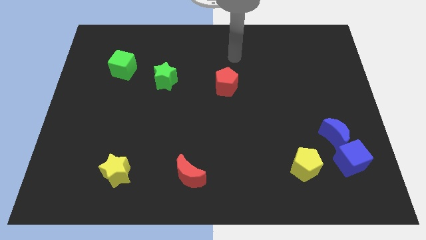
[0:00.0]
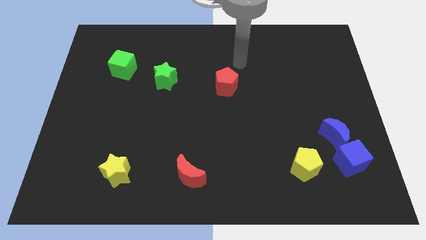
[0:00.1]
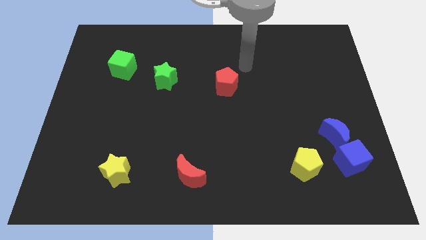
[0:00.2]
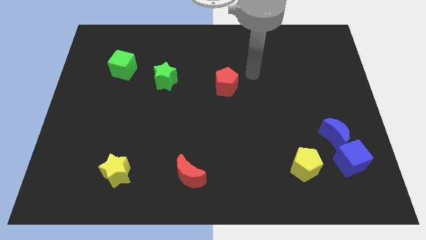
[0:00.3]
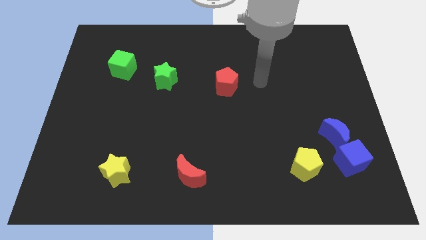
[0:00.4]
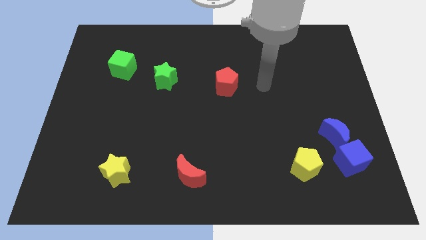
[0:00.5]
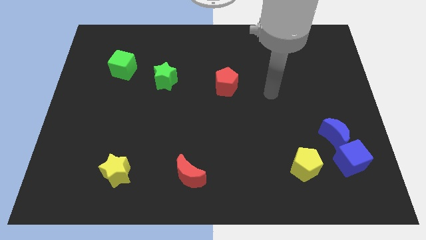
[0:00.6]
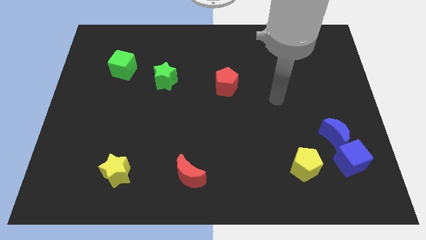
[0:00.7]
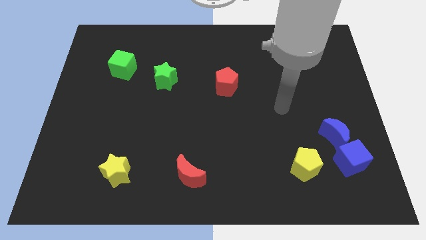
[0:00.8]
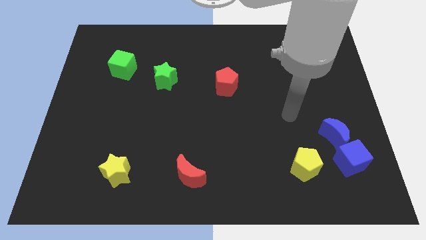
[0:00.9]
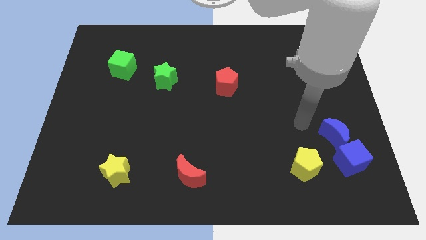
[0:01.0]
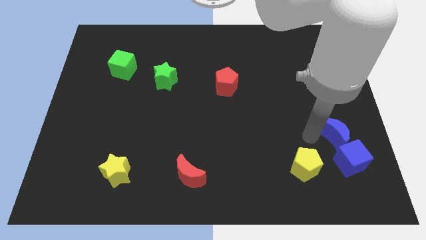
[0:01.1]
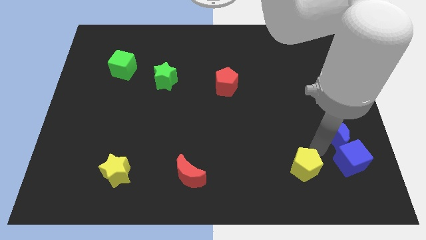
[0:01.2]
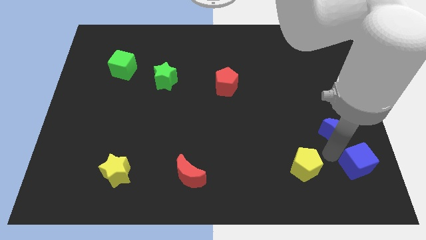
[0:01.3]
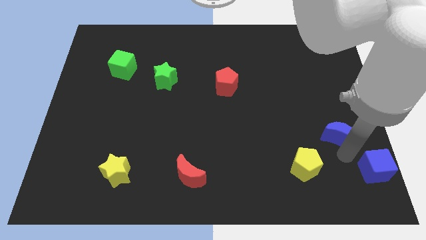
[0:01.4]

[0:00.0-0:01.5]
separate the blue moon from the blue cube

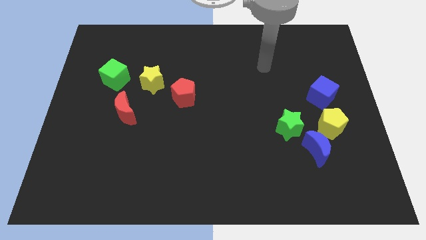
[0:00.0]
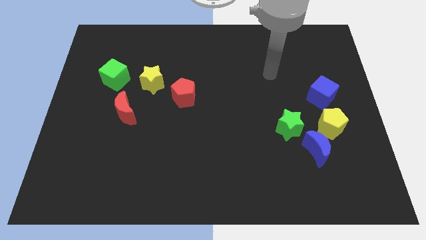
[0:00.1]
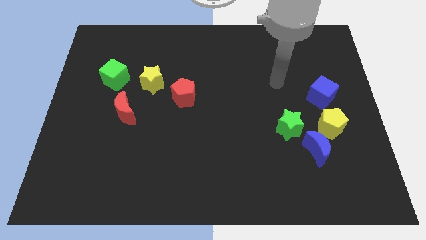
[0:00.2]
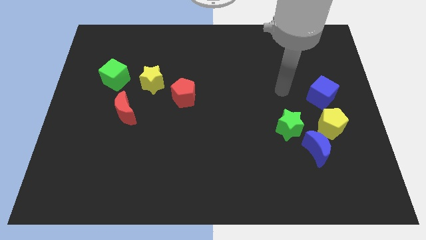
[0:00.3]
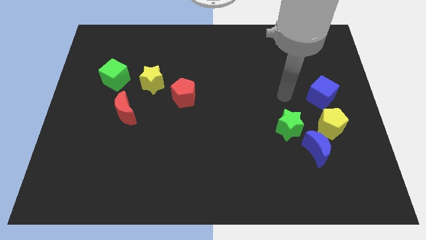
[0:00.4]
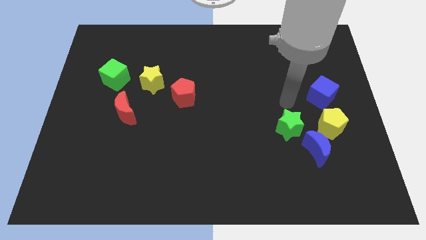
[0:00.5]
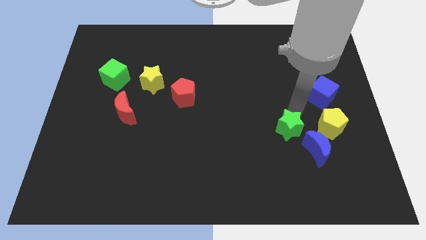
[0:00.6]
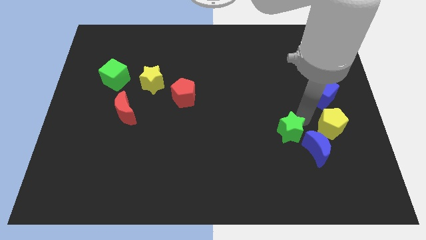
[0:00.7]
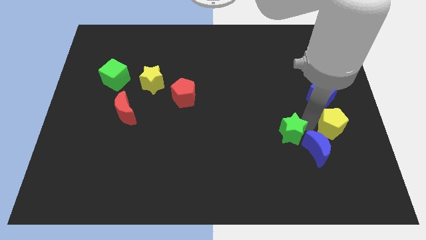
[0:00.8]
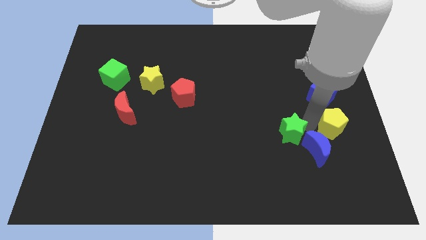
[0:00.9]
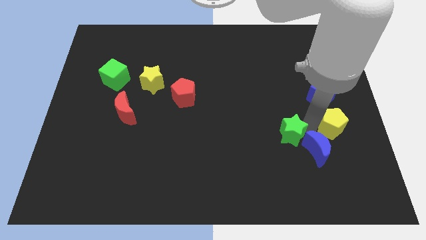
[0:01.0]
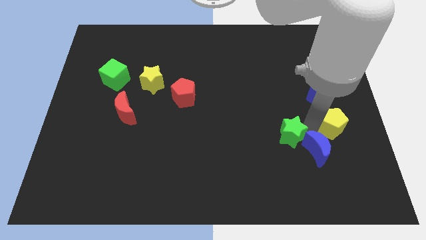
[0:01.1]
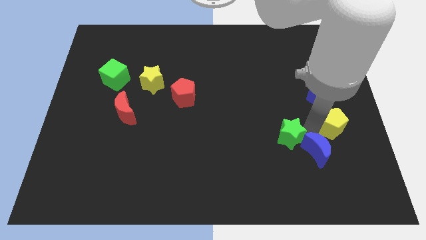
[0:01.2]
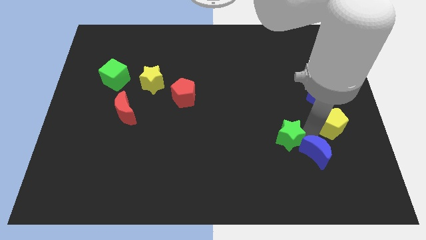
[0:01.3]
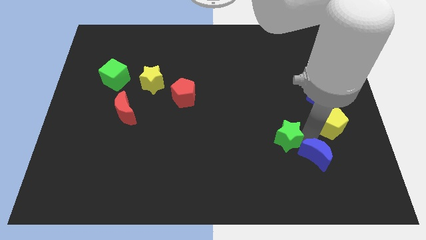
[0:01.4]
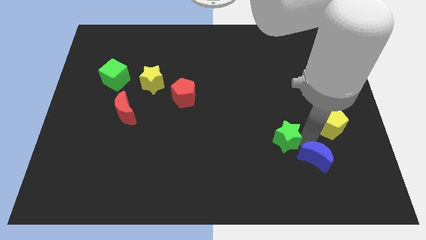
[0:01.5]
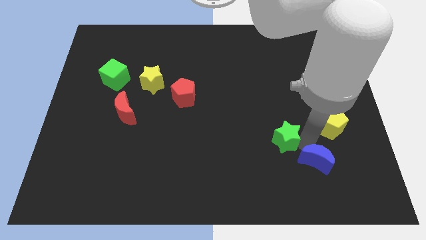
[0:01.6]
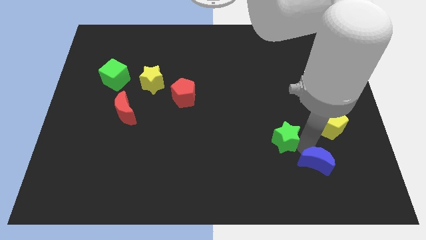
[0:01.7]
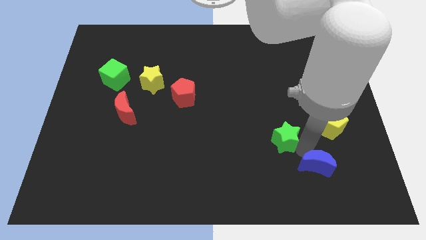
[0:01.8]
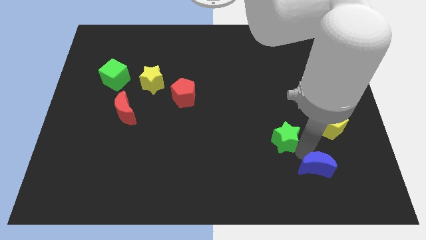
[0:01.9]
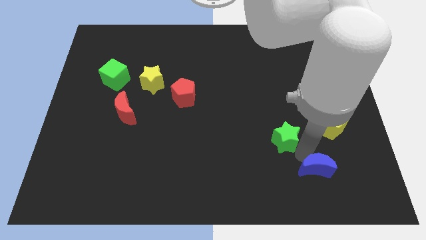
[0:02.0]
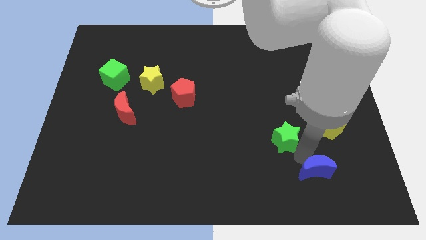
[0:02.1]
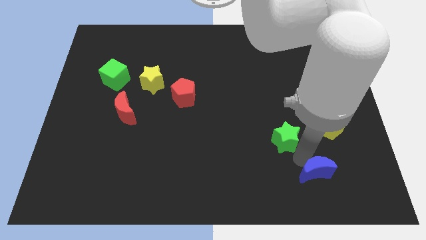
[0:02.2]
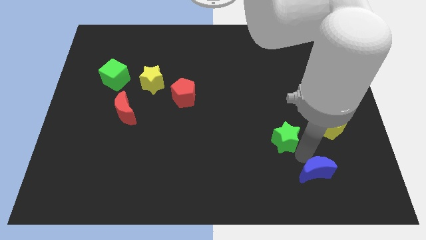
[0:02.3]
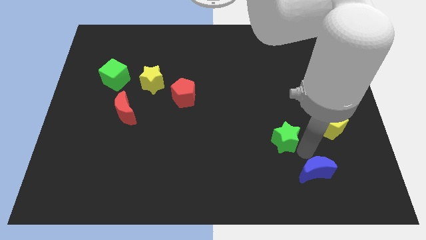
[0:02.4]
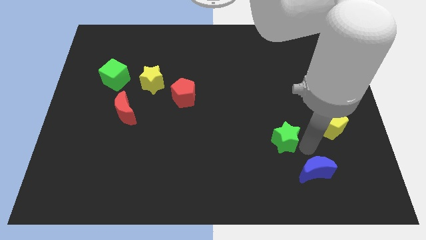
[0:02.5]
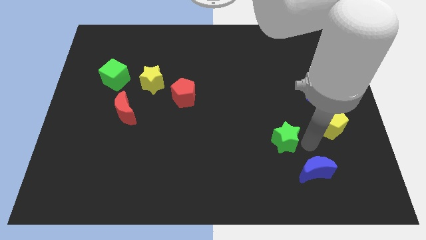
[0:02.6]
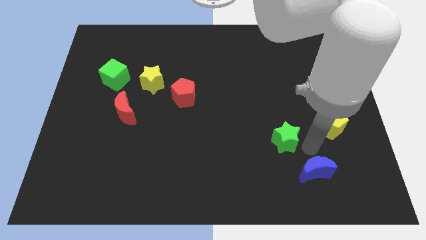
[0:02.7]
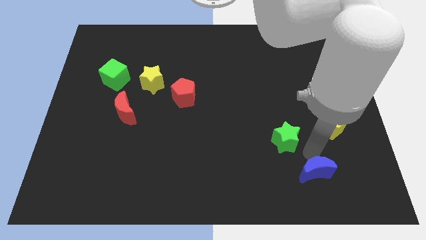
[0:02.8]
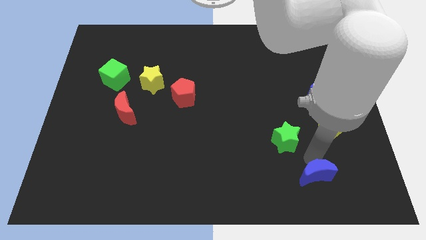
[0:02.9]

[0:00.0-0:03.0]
pull the blue moon apart from the yellow pentagon and green star

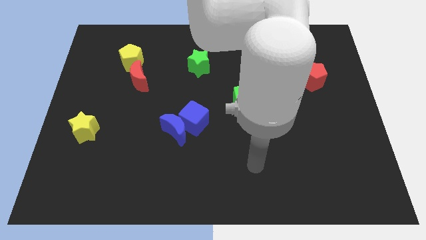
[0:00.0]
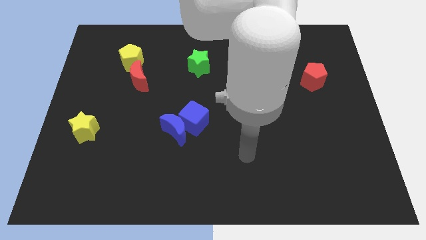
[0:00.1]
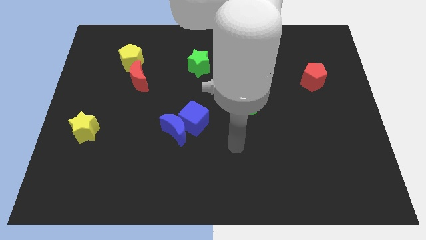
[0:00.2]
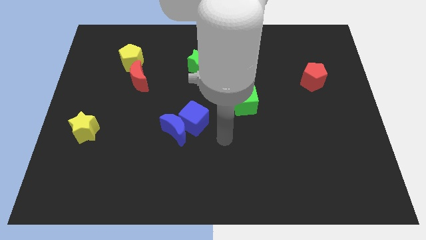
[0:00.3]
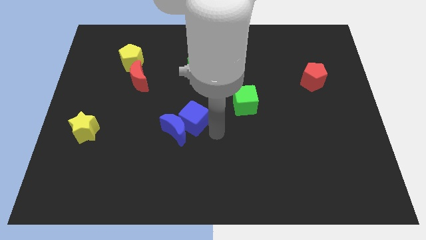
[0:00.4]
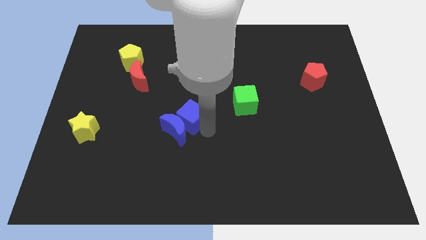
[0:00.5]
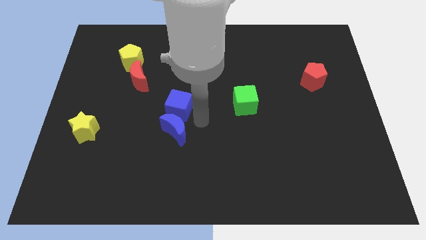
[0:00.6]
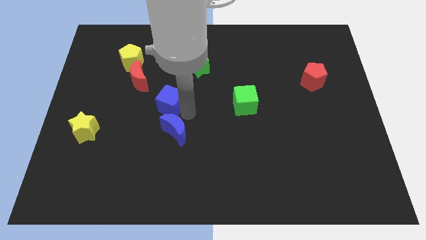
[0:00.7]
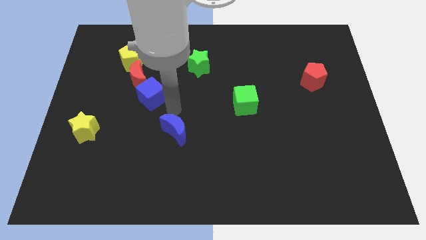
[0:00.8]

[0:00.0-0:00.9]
move the blue moon away from the blue cube

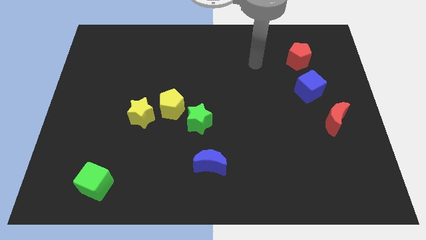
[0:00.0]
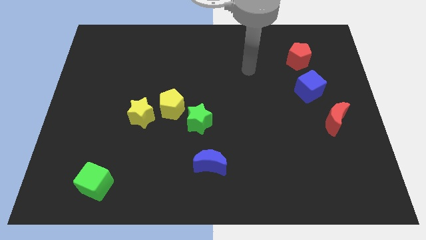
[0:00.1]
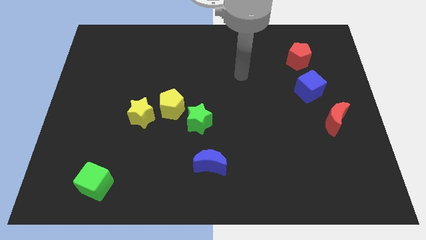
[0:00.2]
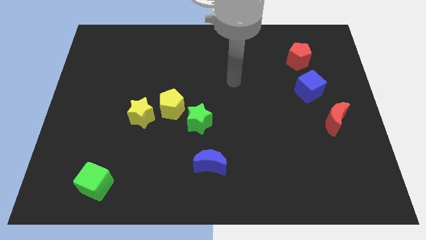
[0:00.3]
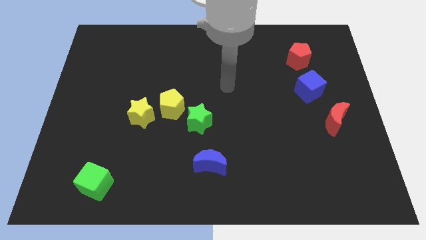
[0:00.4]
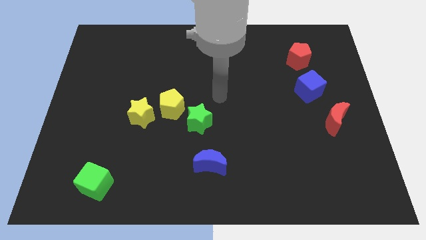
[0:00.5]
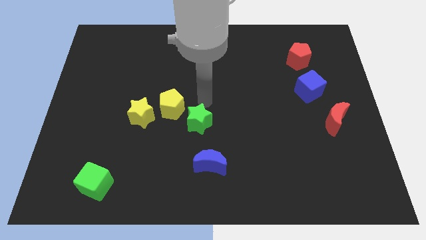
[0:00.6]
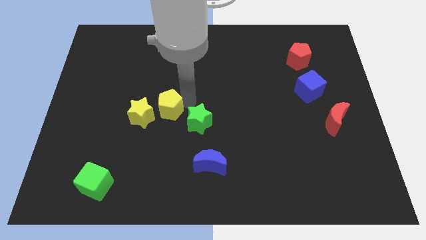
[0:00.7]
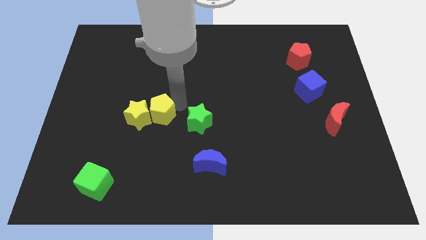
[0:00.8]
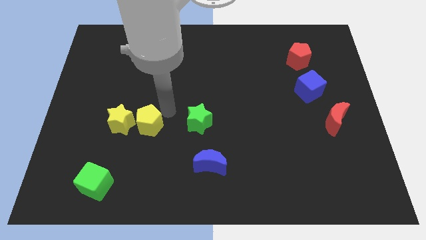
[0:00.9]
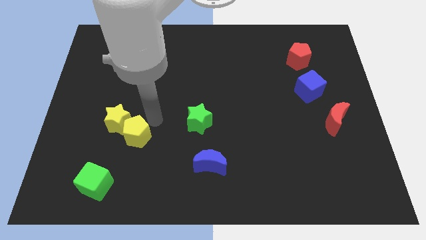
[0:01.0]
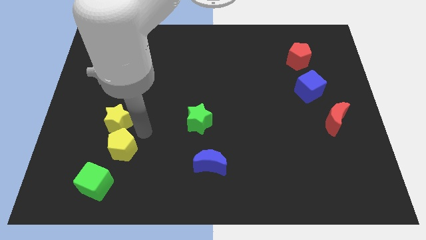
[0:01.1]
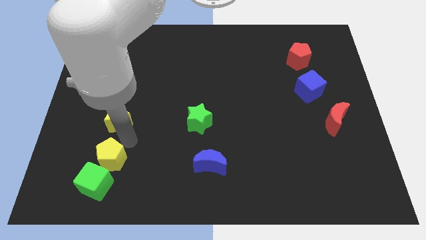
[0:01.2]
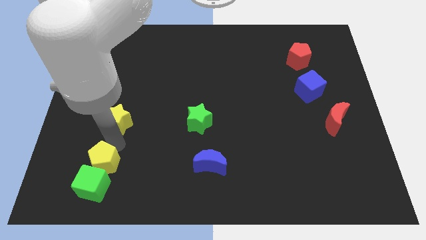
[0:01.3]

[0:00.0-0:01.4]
pull the yellow star apart from the yellow pentagon

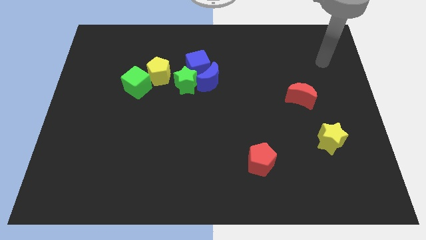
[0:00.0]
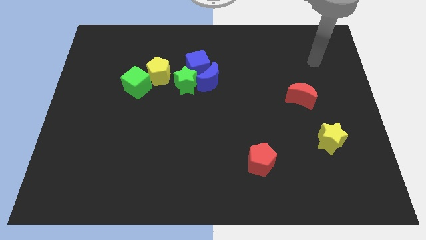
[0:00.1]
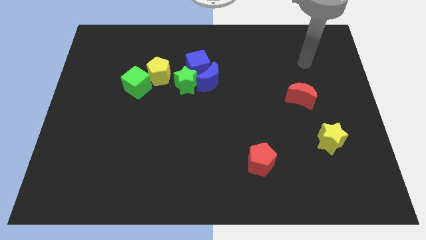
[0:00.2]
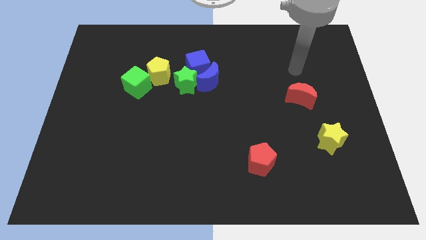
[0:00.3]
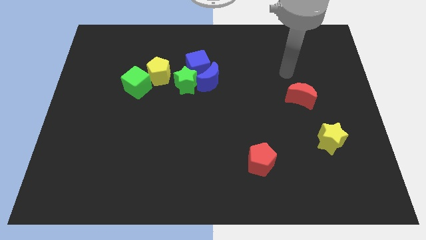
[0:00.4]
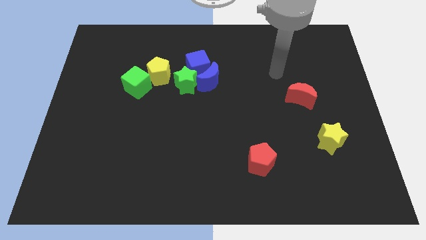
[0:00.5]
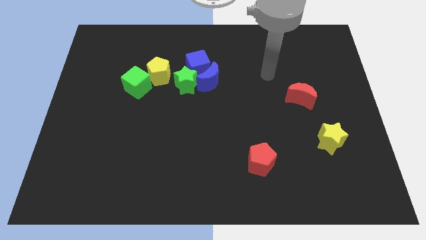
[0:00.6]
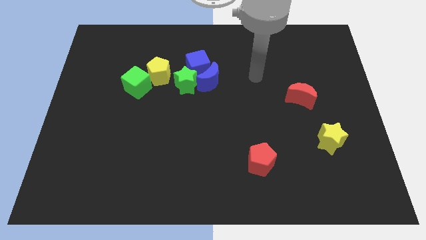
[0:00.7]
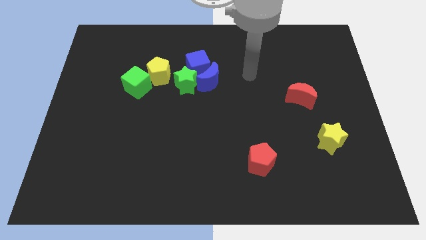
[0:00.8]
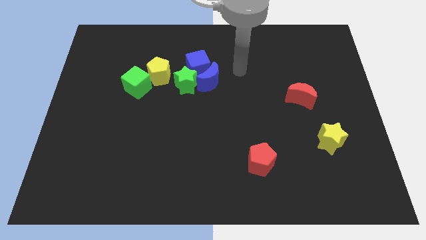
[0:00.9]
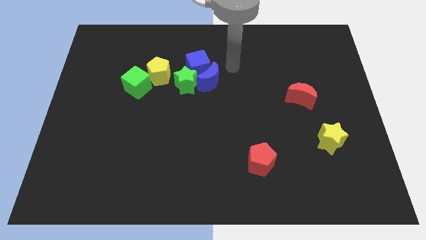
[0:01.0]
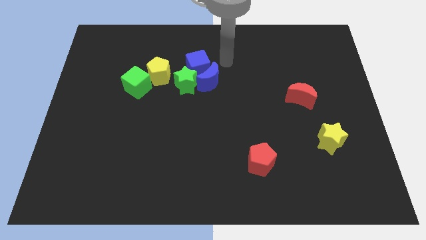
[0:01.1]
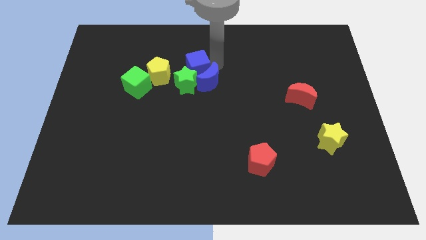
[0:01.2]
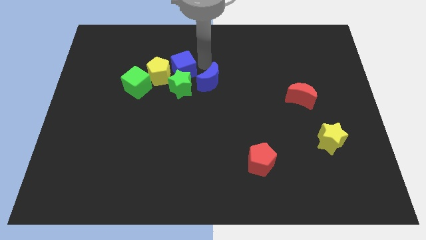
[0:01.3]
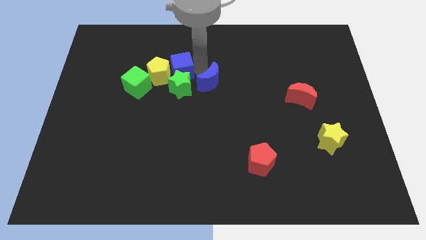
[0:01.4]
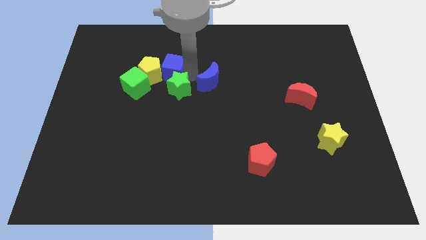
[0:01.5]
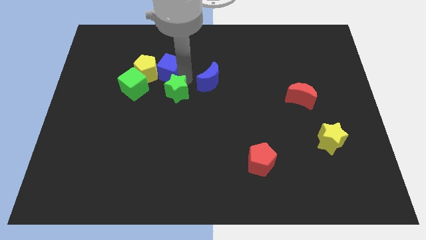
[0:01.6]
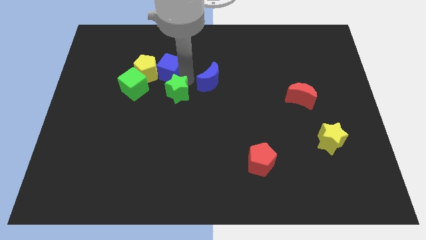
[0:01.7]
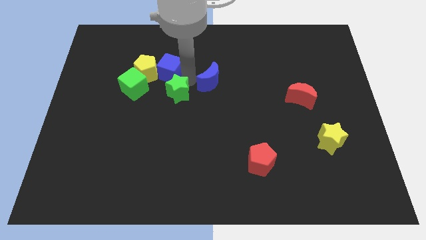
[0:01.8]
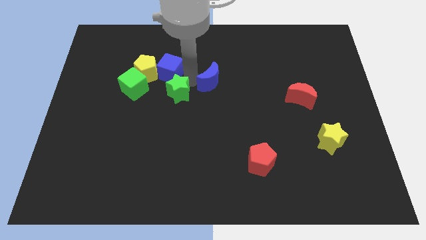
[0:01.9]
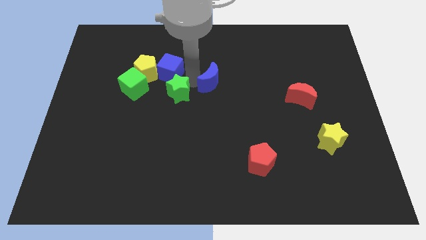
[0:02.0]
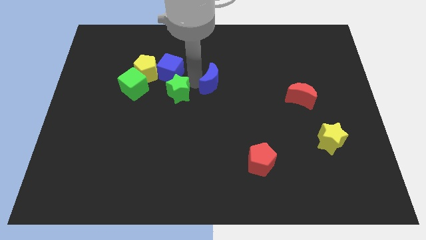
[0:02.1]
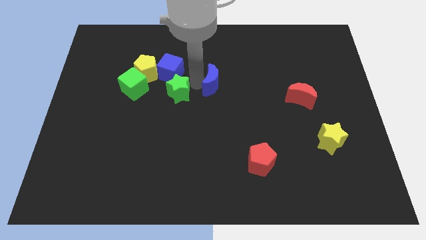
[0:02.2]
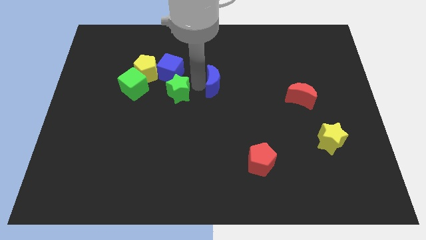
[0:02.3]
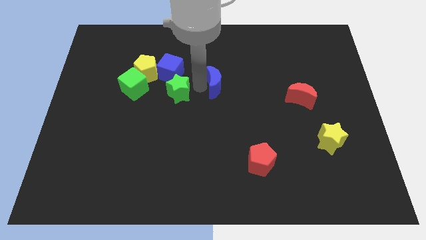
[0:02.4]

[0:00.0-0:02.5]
move the blue moon away from the blue cube and green star
